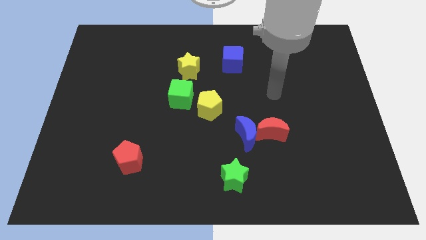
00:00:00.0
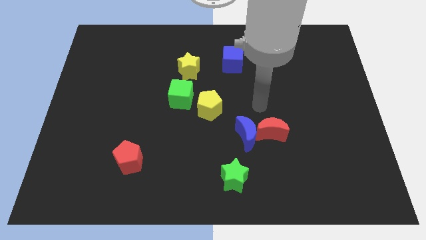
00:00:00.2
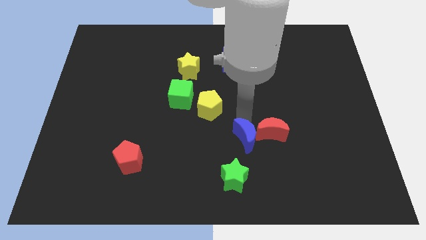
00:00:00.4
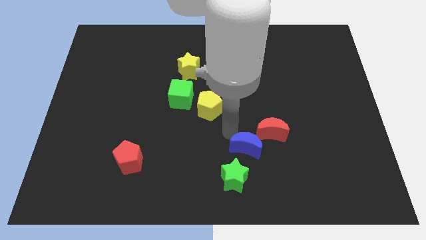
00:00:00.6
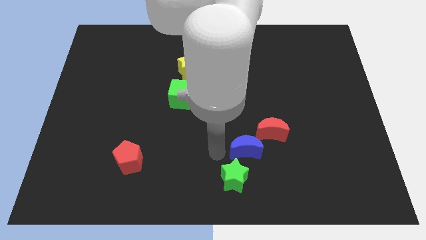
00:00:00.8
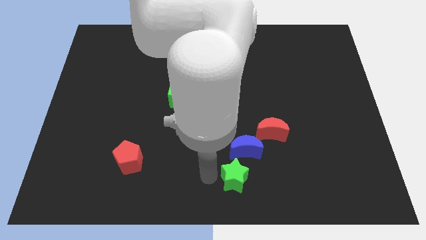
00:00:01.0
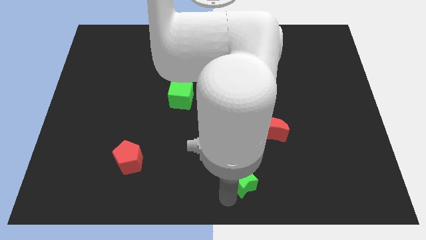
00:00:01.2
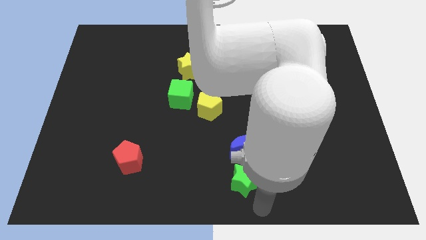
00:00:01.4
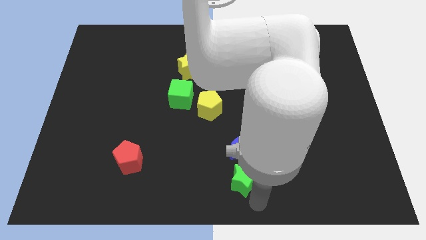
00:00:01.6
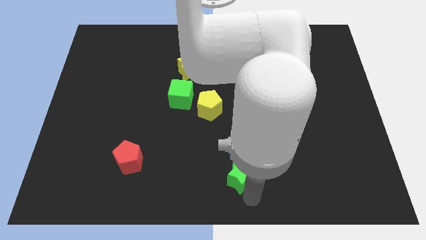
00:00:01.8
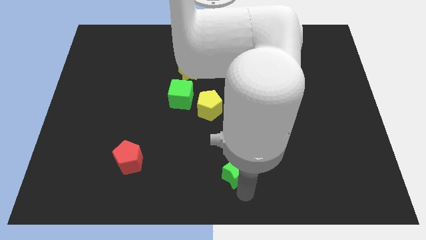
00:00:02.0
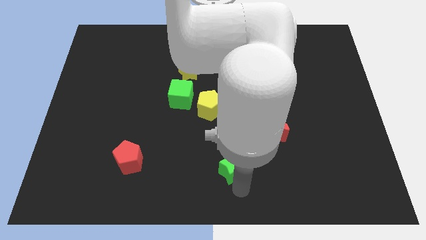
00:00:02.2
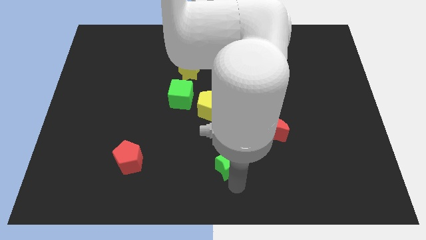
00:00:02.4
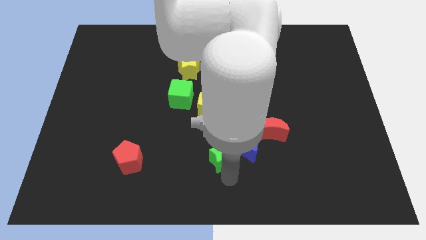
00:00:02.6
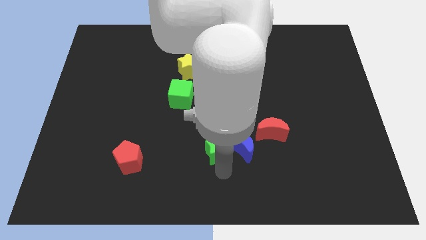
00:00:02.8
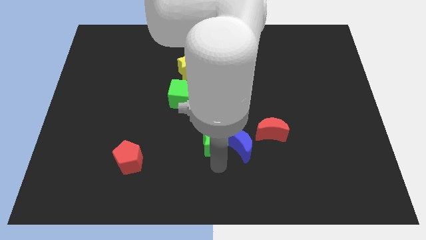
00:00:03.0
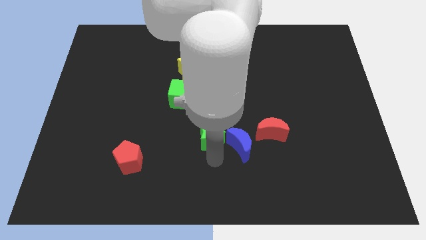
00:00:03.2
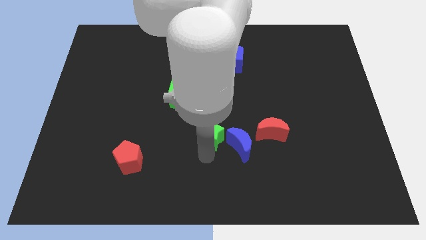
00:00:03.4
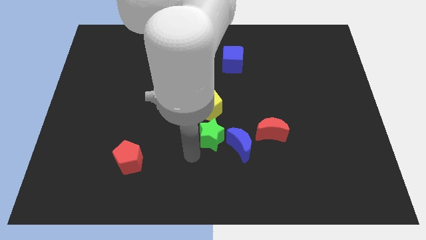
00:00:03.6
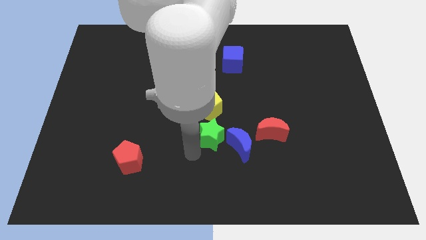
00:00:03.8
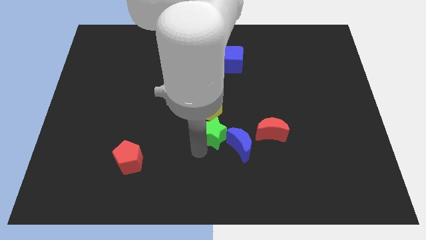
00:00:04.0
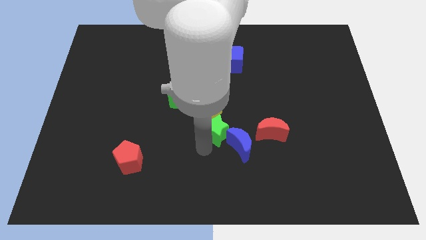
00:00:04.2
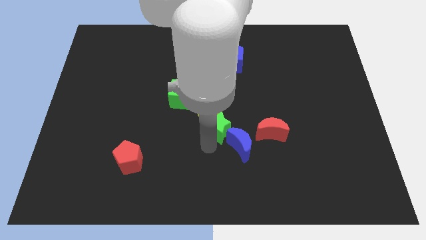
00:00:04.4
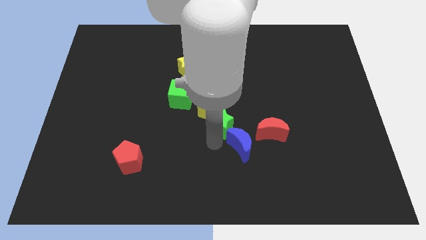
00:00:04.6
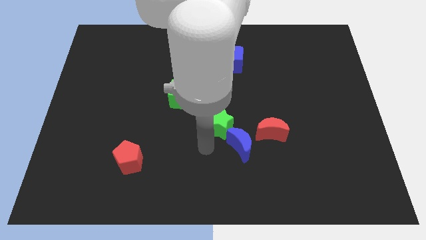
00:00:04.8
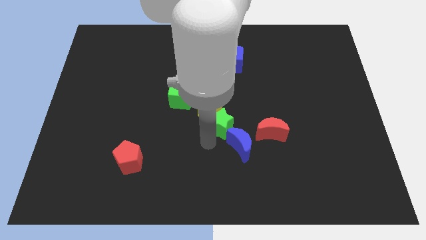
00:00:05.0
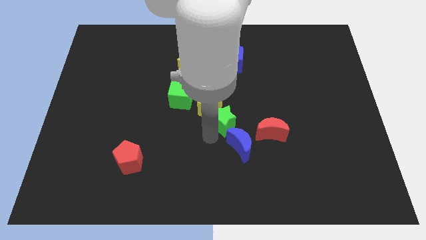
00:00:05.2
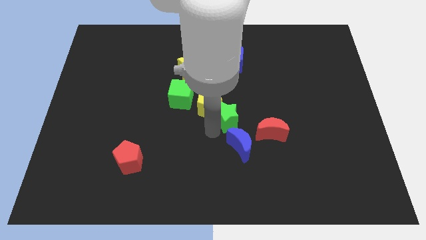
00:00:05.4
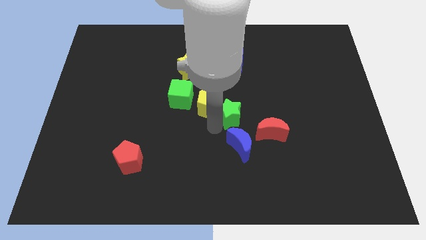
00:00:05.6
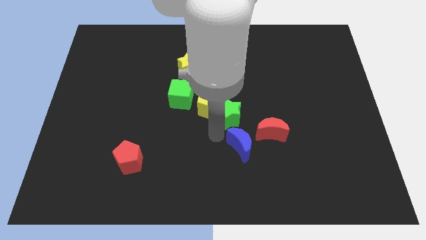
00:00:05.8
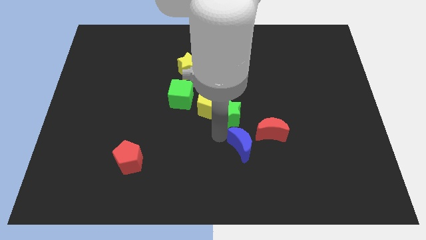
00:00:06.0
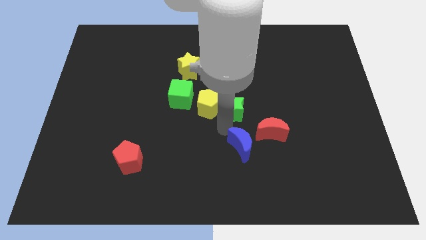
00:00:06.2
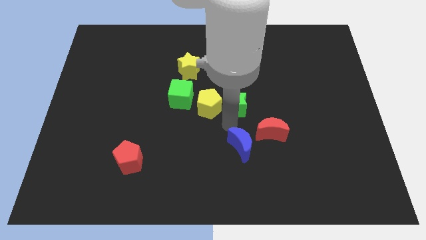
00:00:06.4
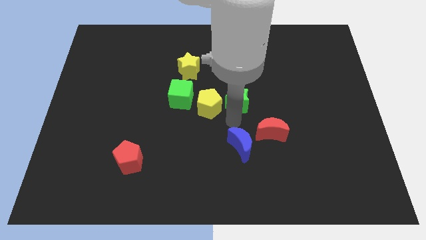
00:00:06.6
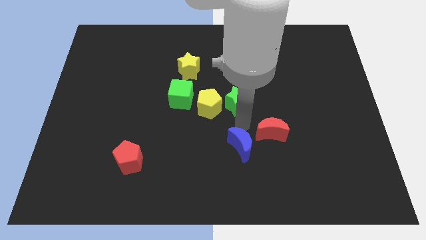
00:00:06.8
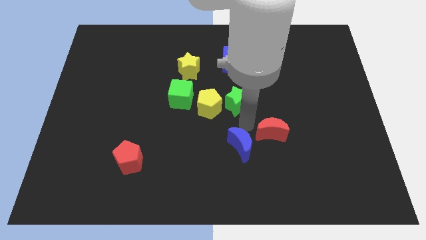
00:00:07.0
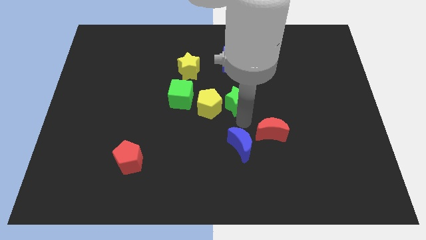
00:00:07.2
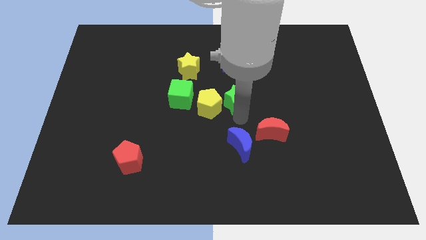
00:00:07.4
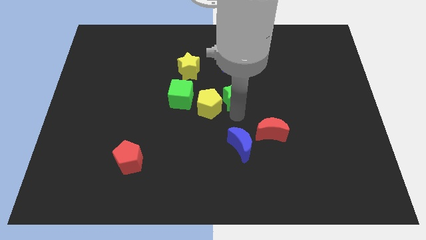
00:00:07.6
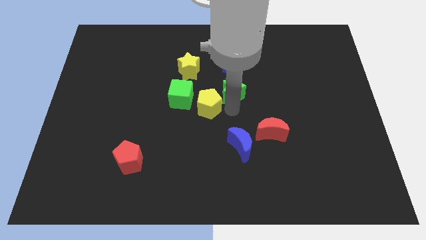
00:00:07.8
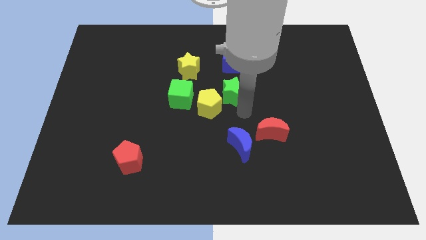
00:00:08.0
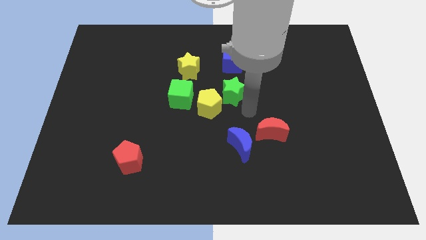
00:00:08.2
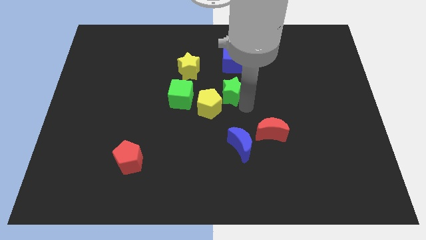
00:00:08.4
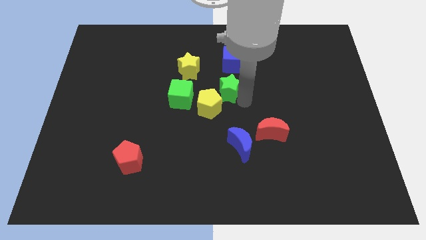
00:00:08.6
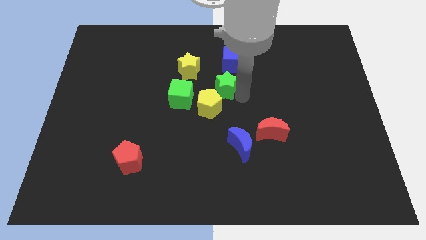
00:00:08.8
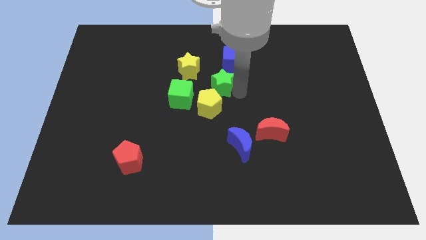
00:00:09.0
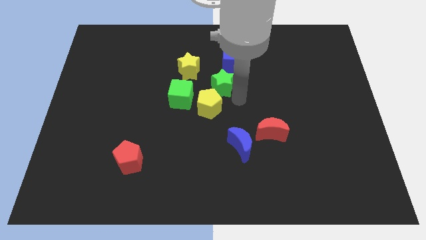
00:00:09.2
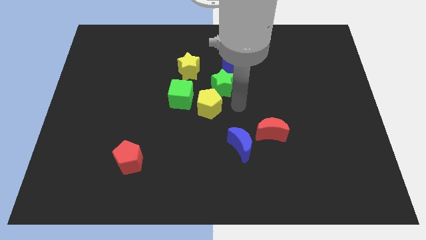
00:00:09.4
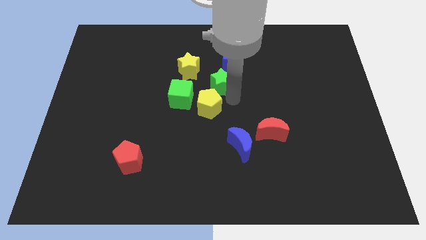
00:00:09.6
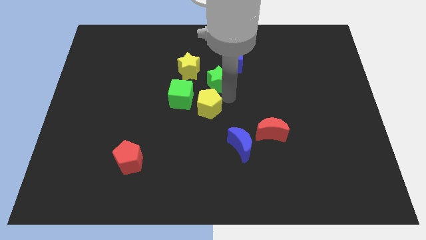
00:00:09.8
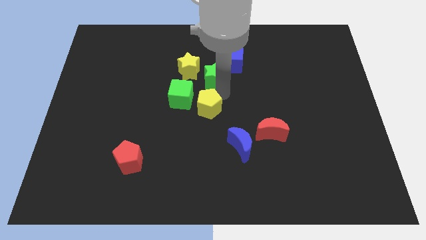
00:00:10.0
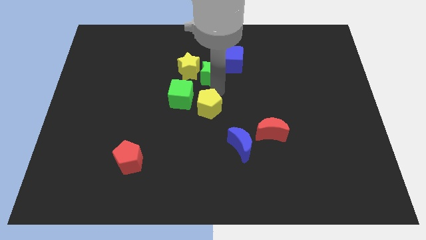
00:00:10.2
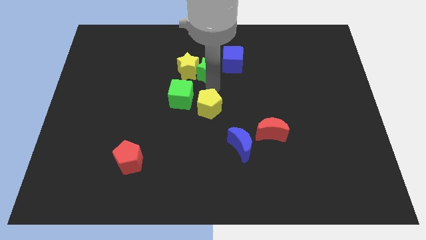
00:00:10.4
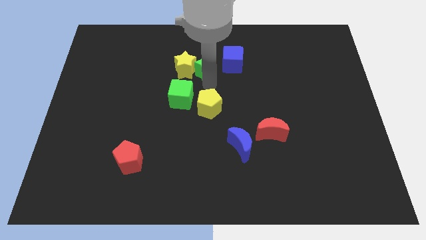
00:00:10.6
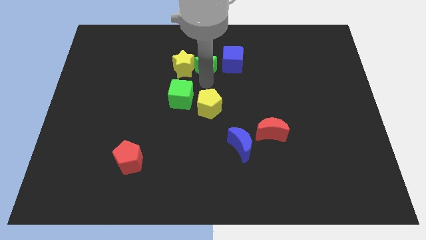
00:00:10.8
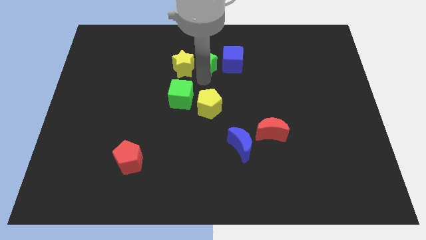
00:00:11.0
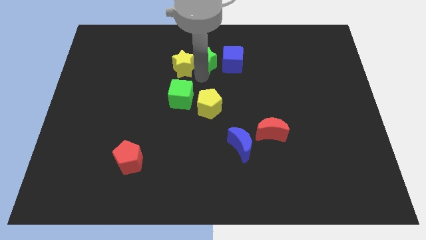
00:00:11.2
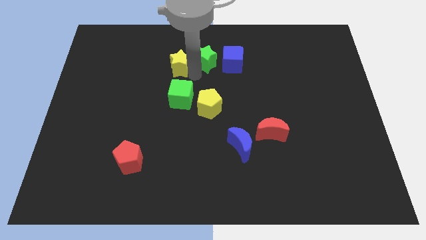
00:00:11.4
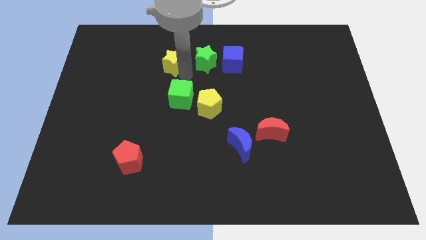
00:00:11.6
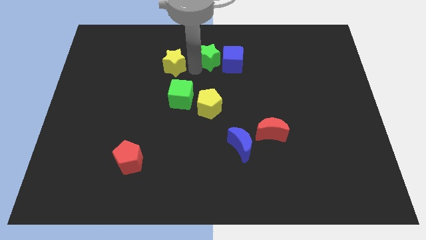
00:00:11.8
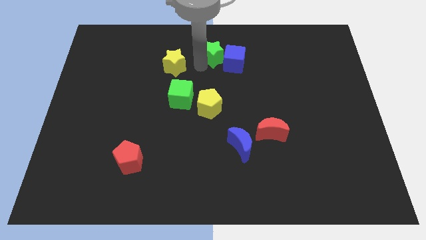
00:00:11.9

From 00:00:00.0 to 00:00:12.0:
slide the green star to the top side

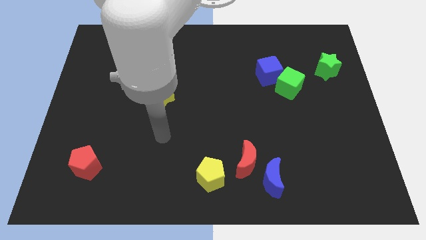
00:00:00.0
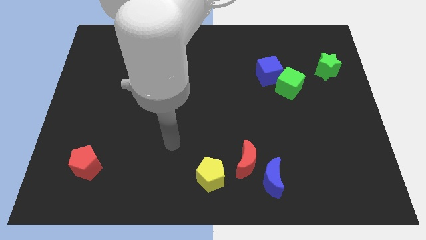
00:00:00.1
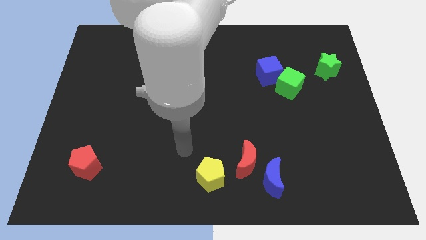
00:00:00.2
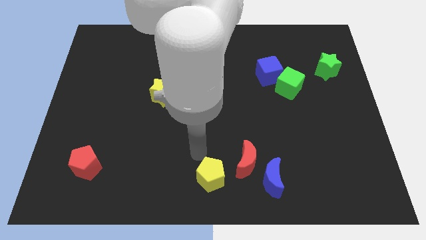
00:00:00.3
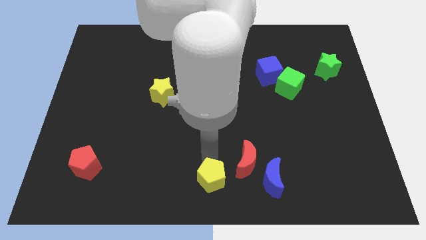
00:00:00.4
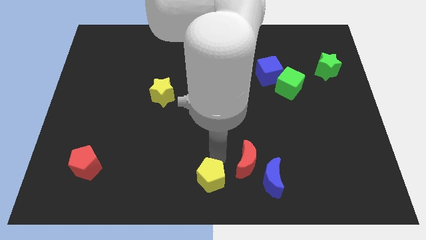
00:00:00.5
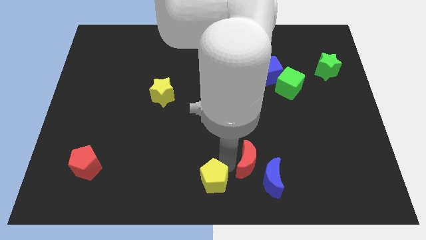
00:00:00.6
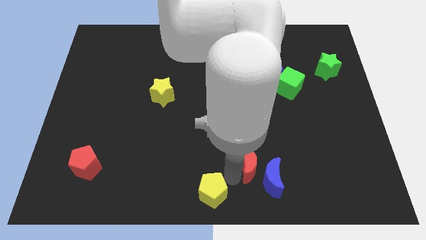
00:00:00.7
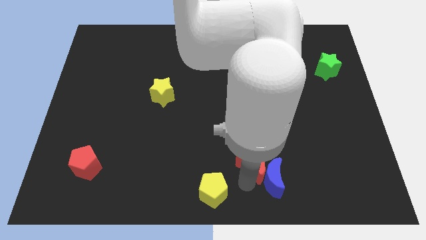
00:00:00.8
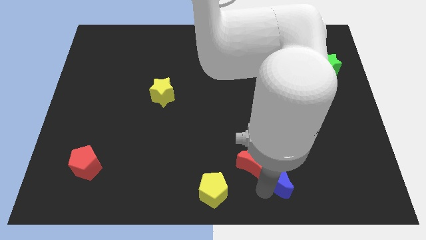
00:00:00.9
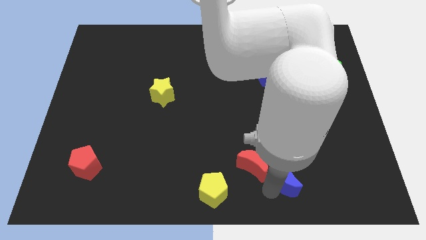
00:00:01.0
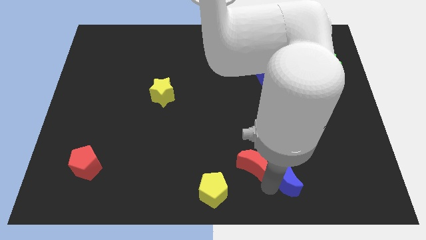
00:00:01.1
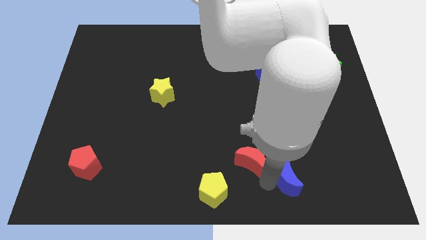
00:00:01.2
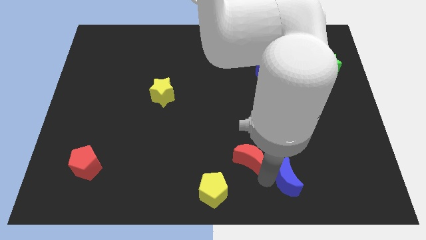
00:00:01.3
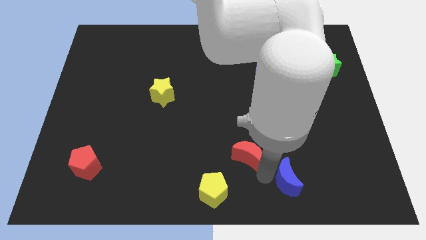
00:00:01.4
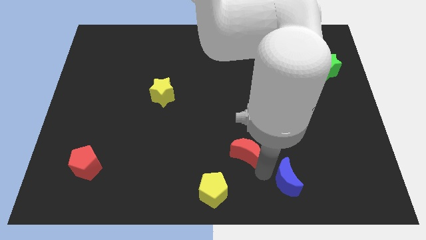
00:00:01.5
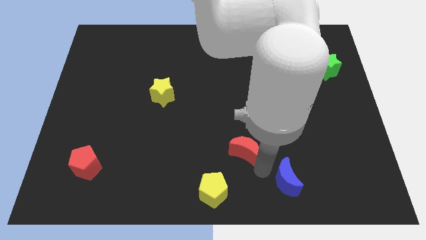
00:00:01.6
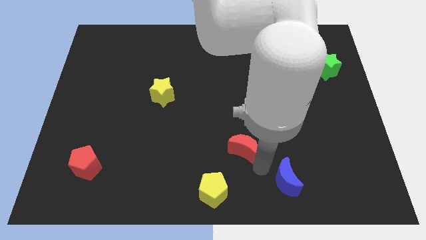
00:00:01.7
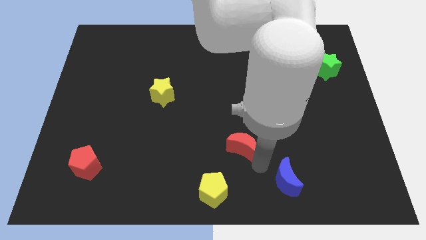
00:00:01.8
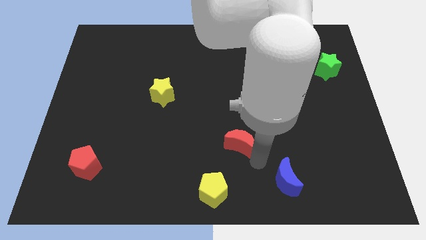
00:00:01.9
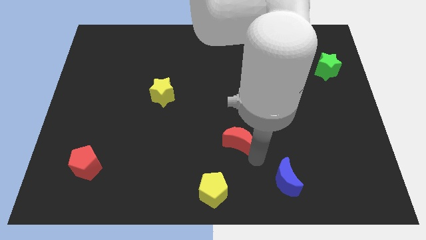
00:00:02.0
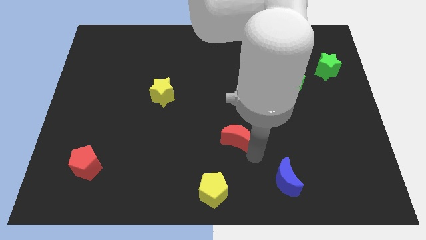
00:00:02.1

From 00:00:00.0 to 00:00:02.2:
move the red moon to the center of the board
